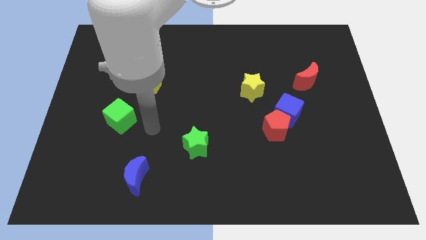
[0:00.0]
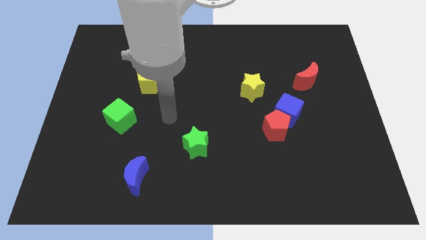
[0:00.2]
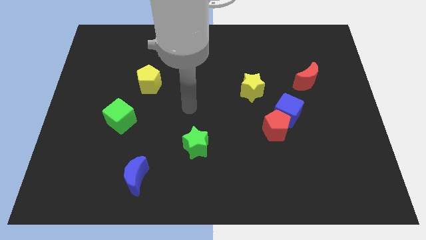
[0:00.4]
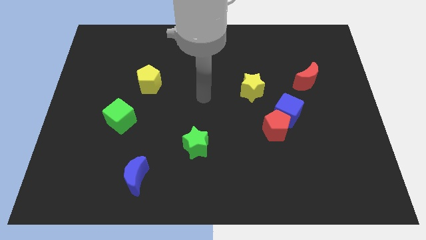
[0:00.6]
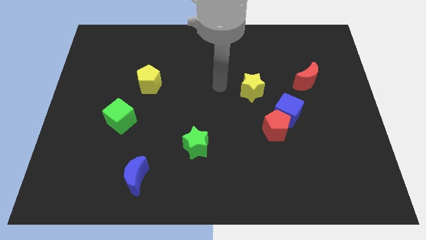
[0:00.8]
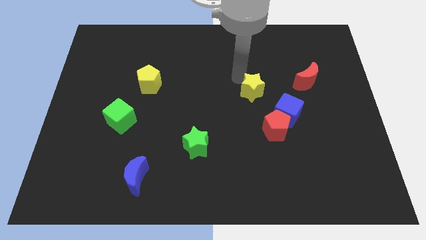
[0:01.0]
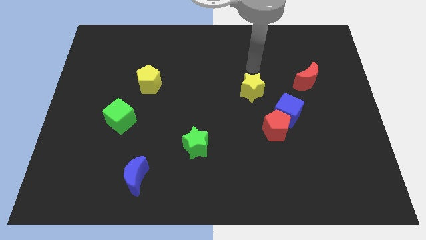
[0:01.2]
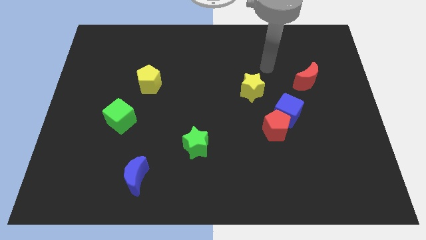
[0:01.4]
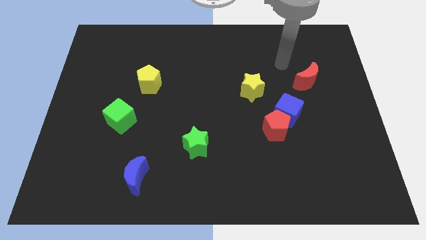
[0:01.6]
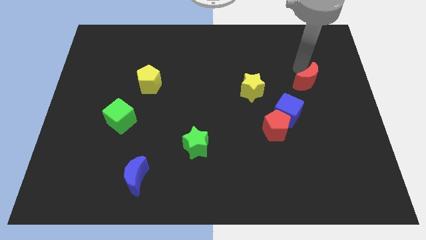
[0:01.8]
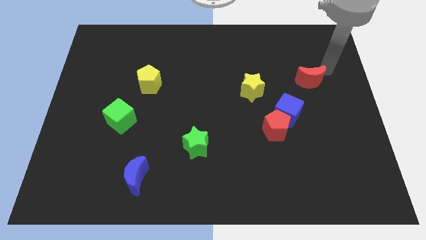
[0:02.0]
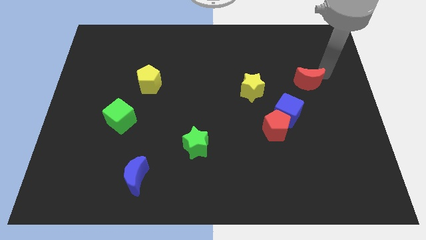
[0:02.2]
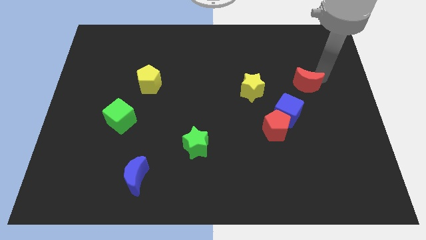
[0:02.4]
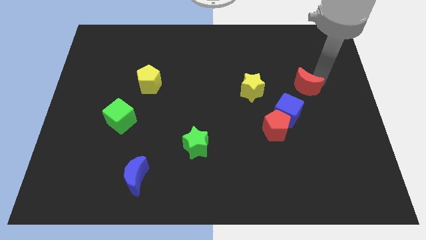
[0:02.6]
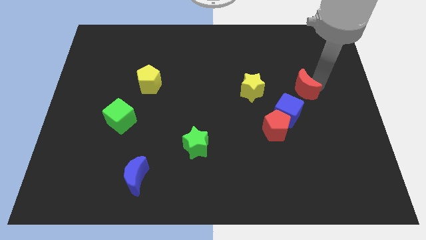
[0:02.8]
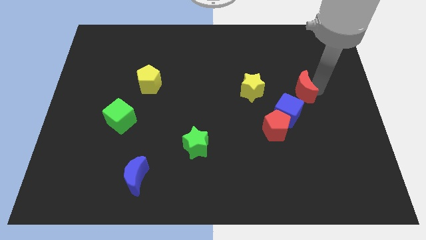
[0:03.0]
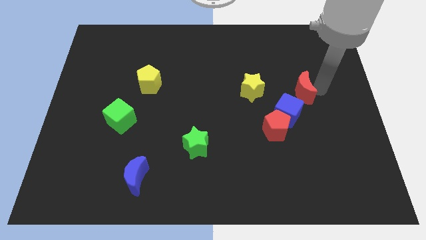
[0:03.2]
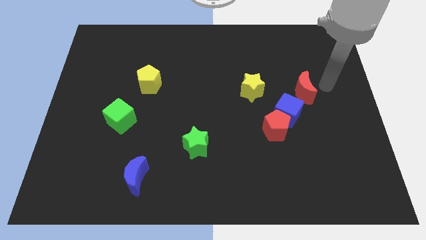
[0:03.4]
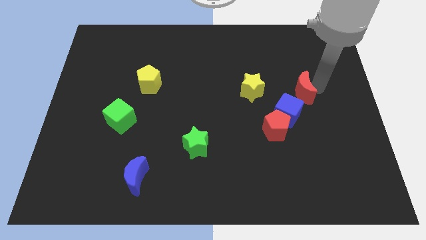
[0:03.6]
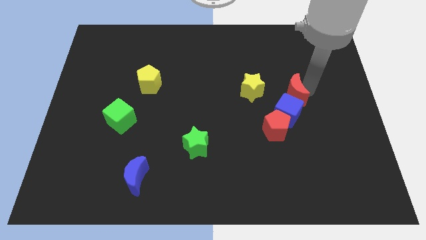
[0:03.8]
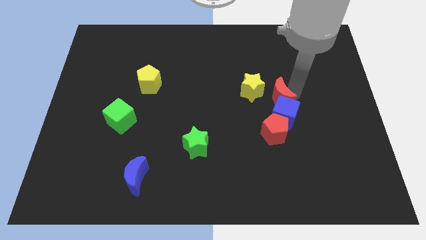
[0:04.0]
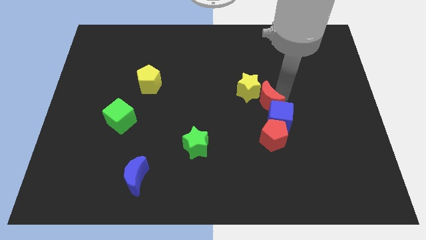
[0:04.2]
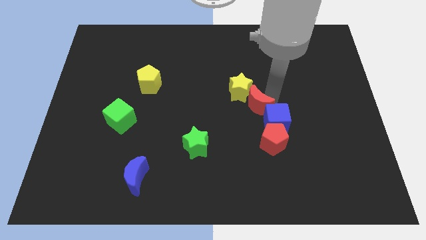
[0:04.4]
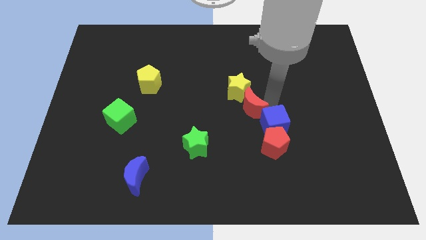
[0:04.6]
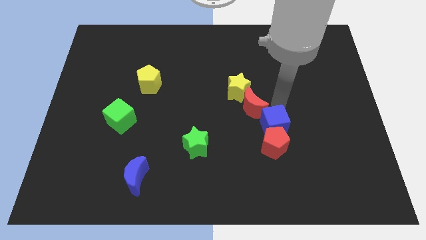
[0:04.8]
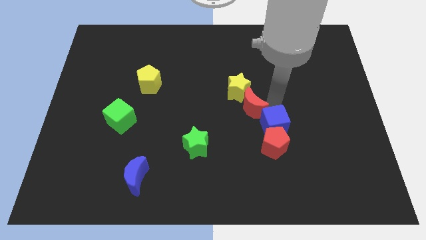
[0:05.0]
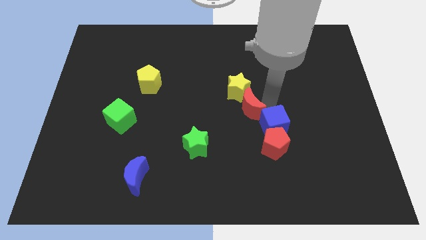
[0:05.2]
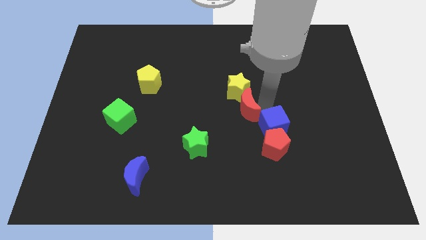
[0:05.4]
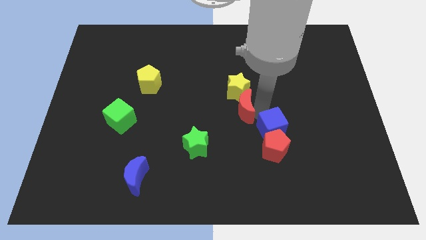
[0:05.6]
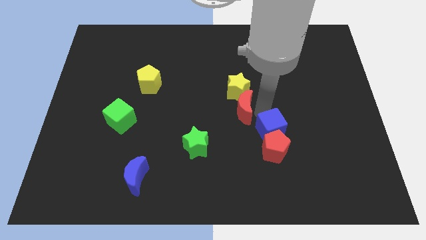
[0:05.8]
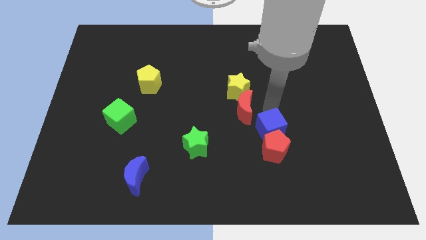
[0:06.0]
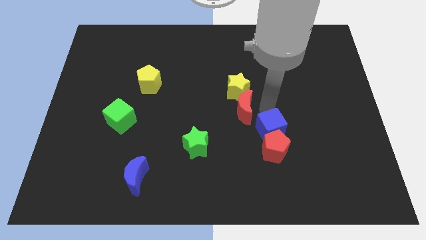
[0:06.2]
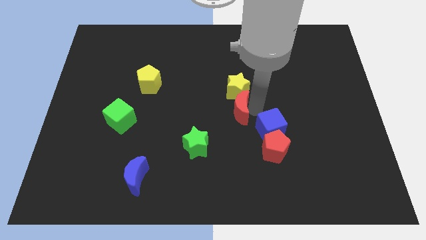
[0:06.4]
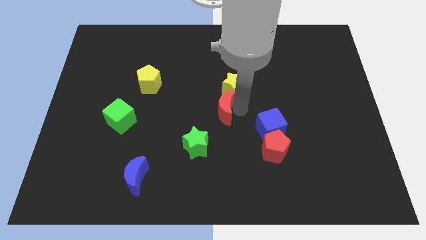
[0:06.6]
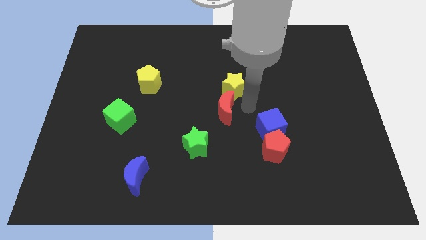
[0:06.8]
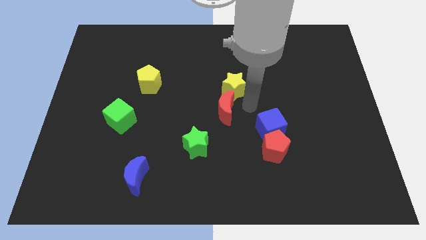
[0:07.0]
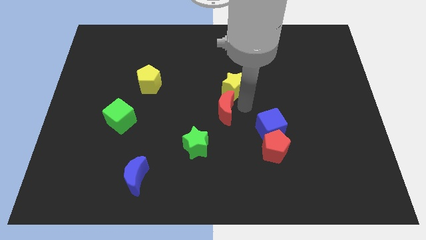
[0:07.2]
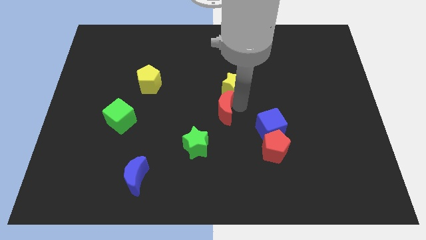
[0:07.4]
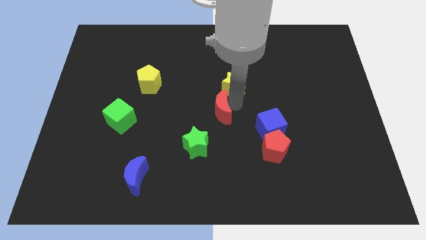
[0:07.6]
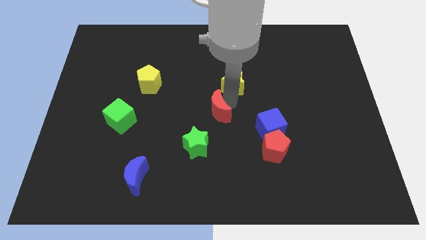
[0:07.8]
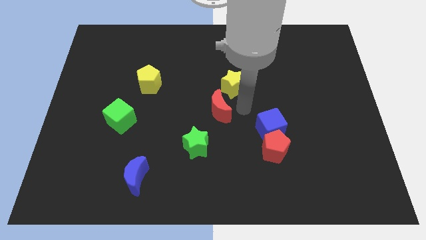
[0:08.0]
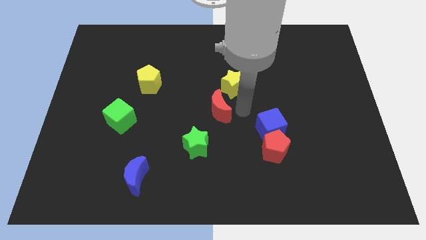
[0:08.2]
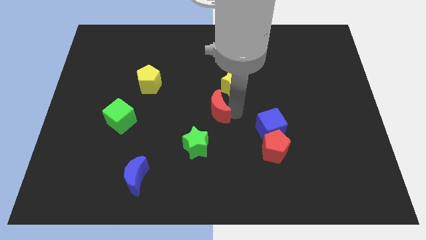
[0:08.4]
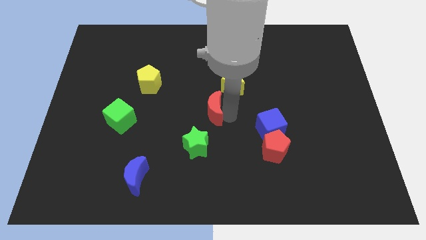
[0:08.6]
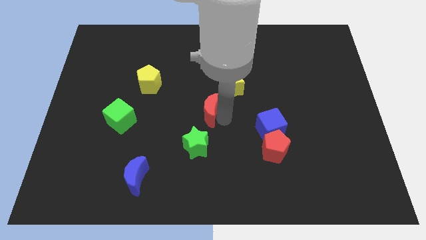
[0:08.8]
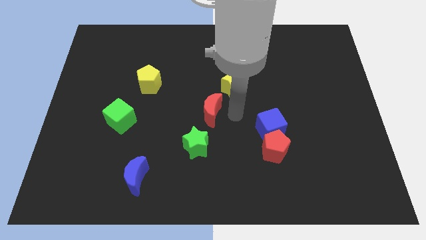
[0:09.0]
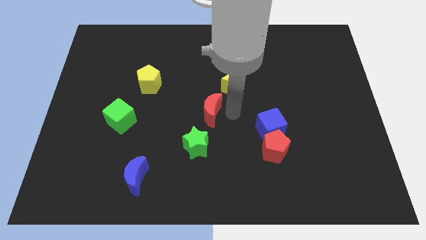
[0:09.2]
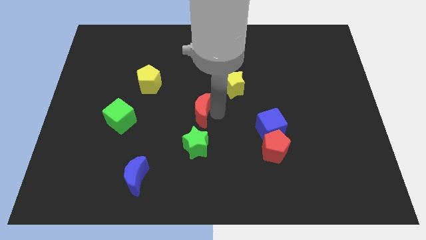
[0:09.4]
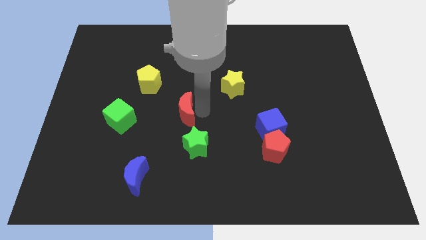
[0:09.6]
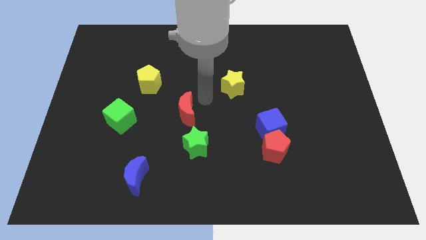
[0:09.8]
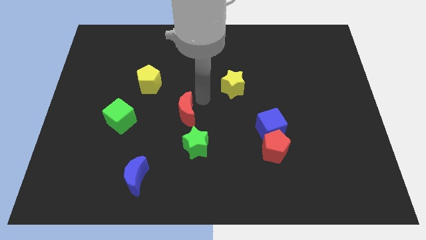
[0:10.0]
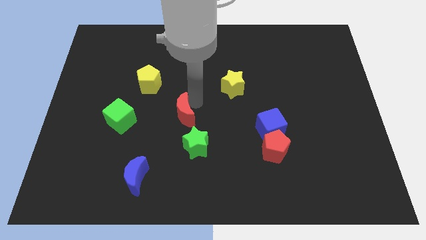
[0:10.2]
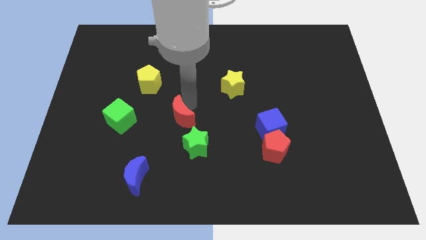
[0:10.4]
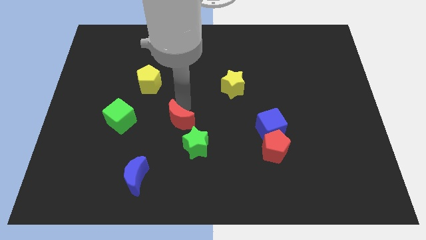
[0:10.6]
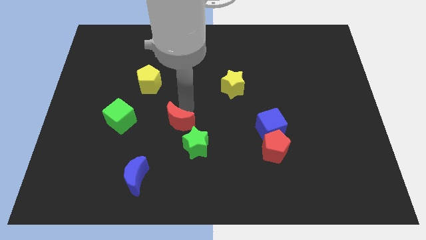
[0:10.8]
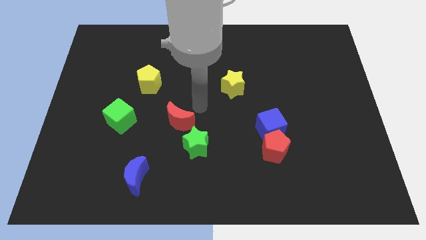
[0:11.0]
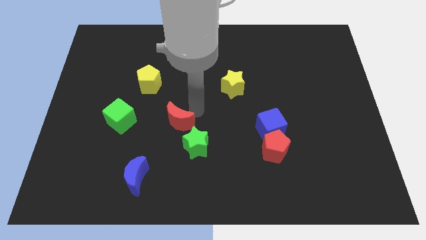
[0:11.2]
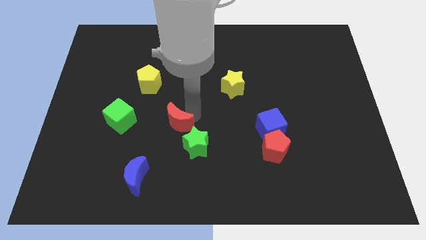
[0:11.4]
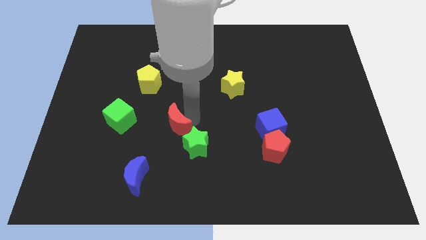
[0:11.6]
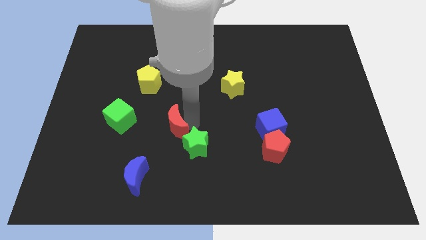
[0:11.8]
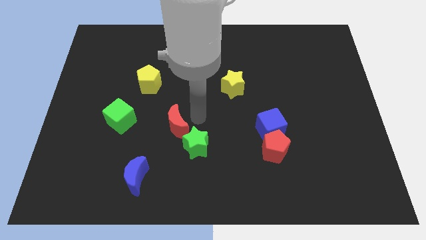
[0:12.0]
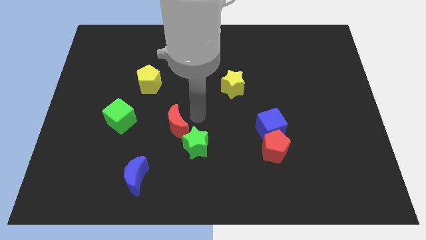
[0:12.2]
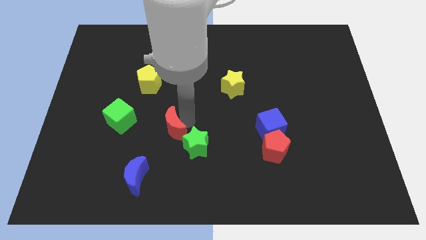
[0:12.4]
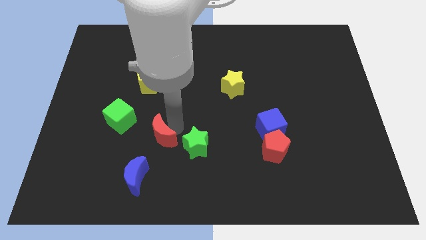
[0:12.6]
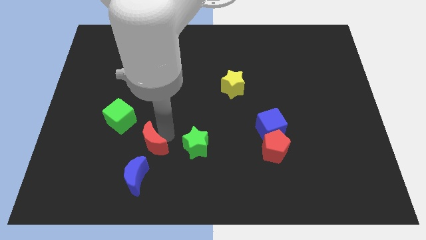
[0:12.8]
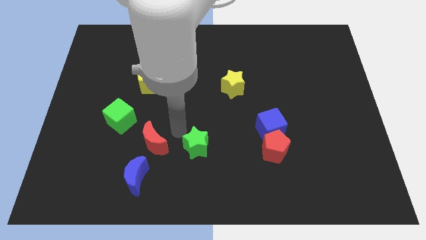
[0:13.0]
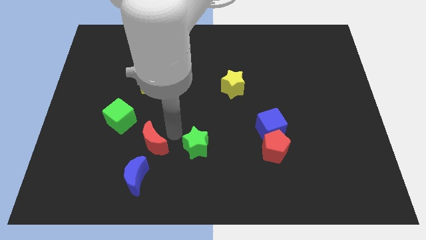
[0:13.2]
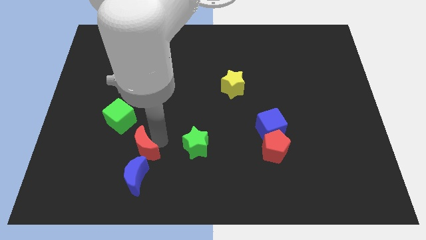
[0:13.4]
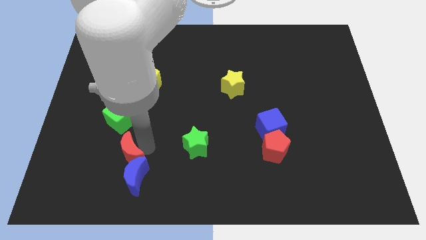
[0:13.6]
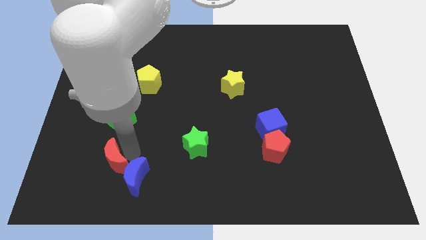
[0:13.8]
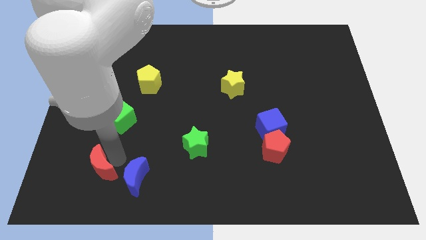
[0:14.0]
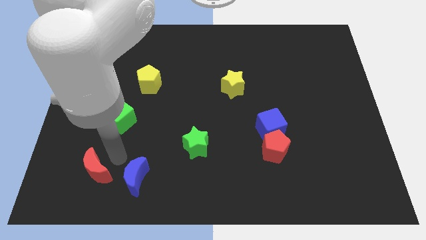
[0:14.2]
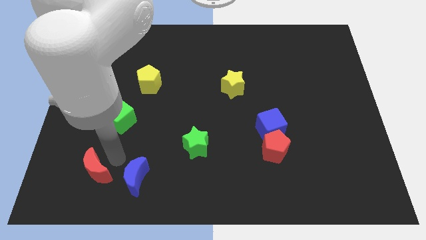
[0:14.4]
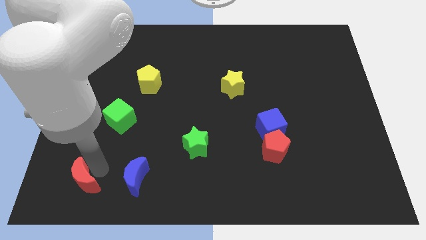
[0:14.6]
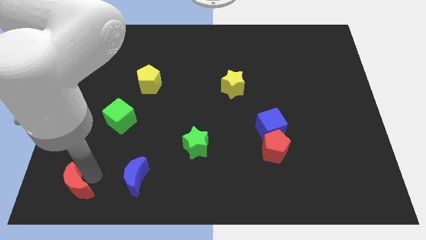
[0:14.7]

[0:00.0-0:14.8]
put the red moon to the bottom left of the board
